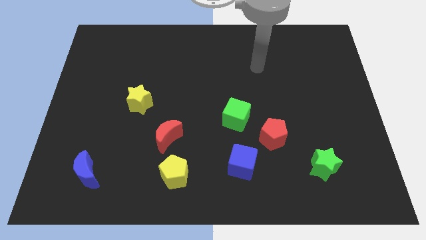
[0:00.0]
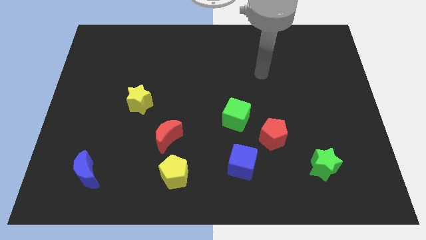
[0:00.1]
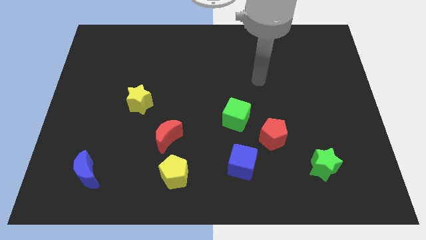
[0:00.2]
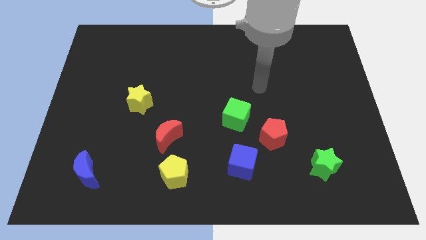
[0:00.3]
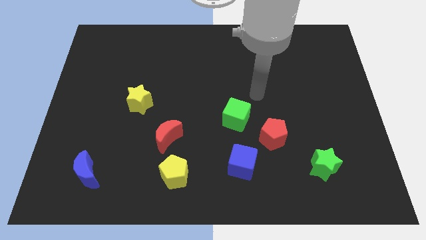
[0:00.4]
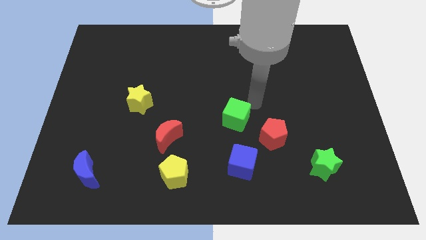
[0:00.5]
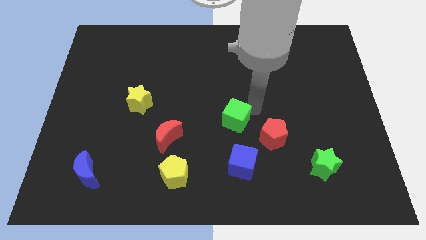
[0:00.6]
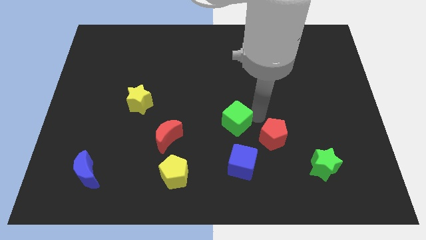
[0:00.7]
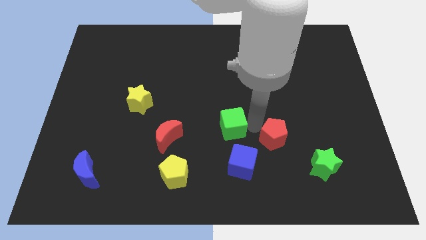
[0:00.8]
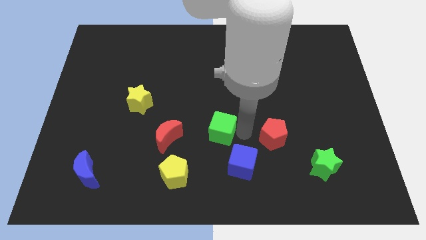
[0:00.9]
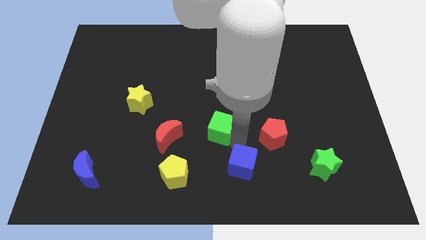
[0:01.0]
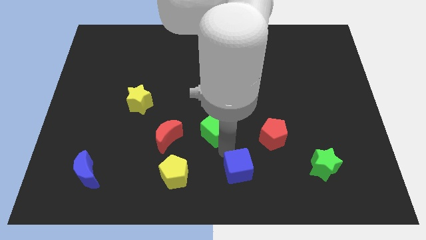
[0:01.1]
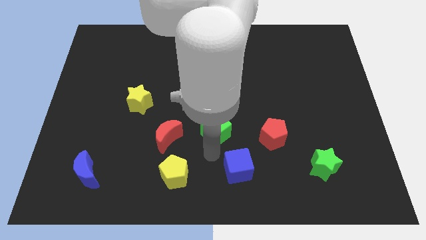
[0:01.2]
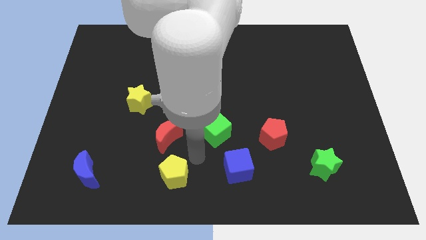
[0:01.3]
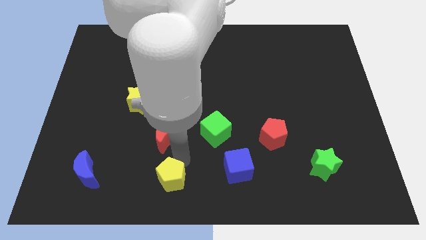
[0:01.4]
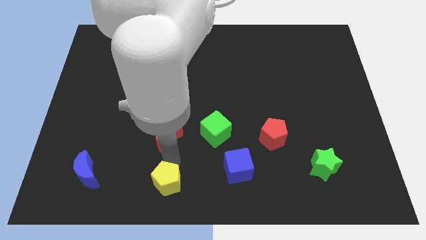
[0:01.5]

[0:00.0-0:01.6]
pull the red moon apart from the yellow pentagon

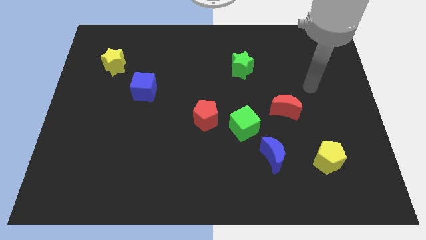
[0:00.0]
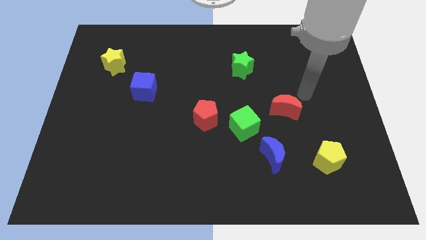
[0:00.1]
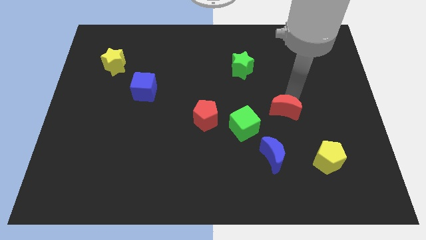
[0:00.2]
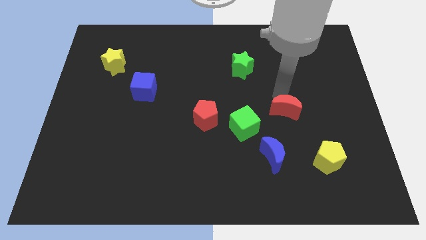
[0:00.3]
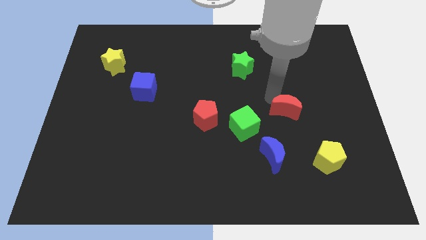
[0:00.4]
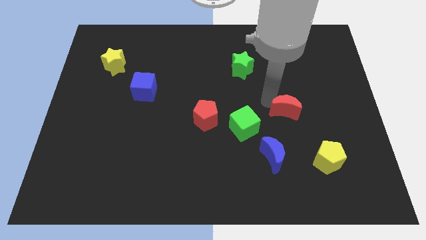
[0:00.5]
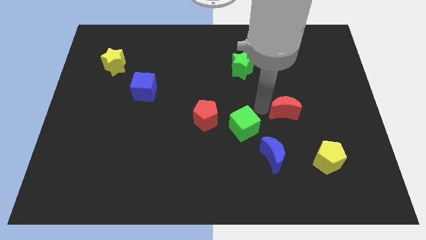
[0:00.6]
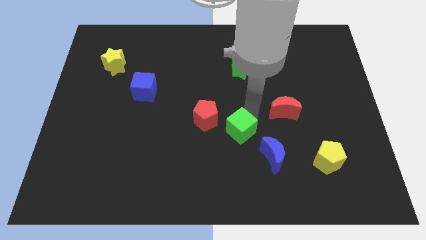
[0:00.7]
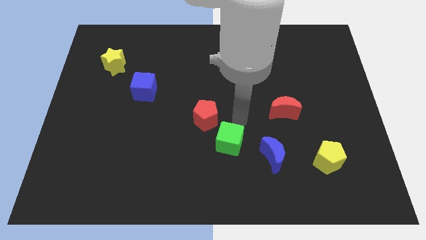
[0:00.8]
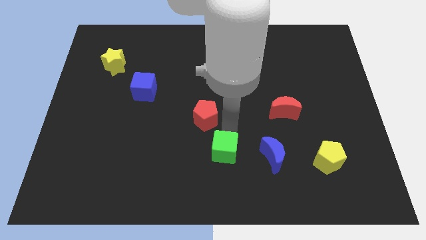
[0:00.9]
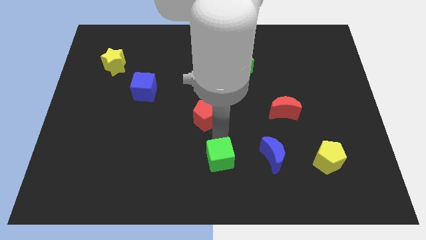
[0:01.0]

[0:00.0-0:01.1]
move the red pentagon away from the green cube

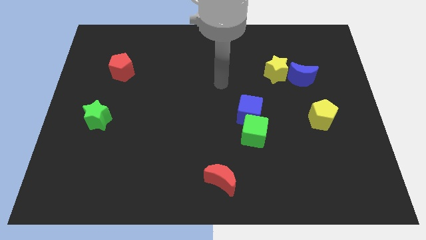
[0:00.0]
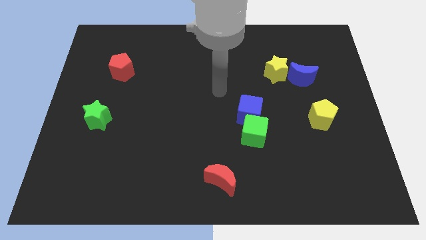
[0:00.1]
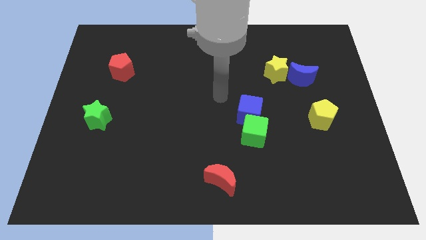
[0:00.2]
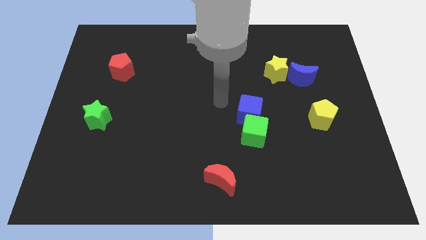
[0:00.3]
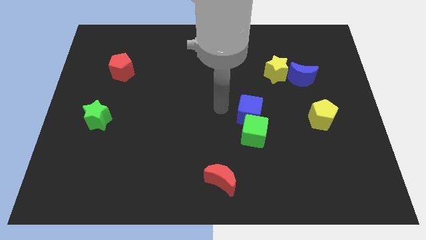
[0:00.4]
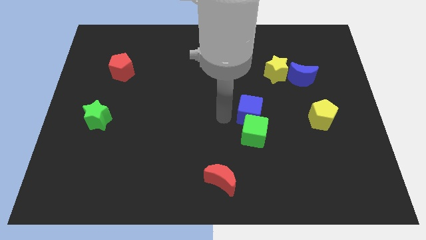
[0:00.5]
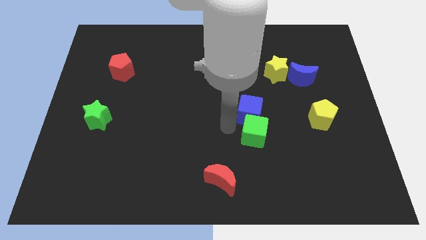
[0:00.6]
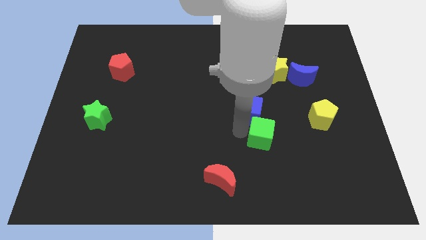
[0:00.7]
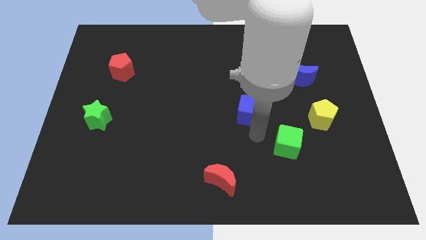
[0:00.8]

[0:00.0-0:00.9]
pull the blue cube apart from the green cube

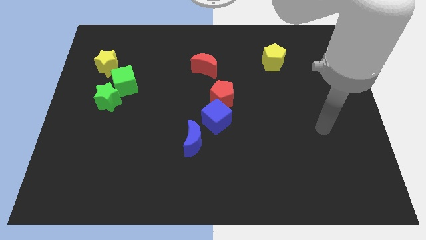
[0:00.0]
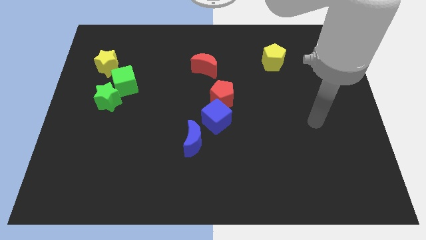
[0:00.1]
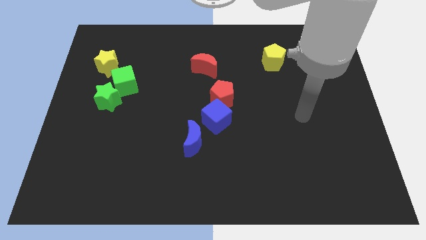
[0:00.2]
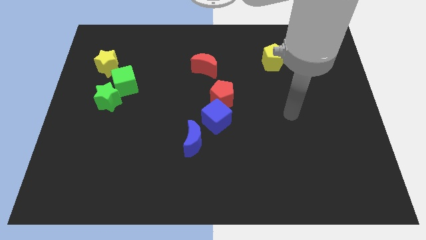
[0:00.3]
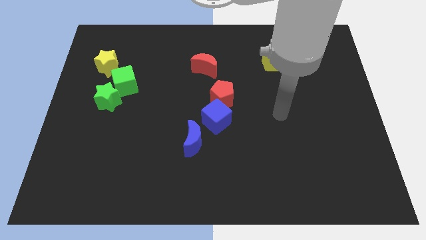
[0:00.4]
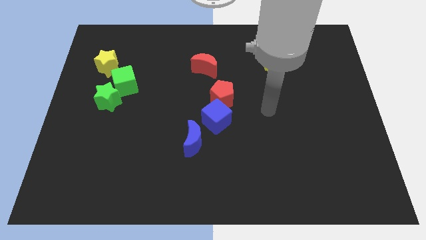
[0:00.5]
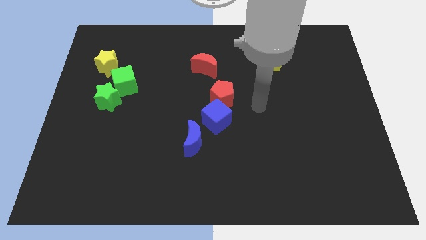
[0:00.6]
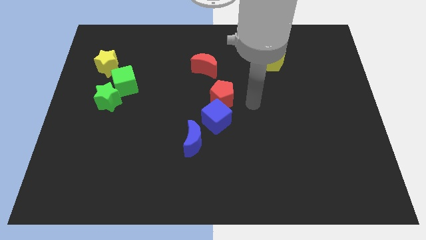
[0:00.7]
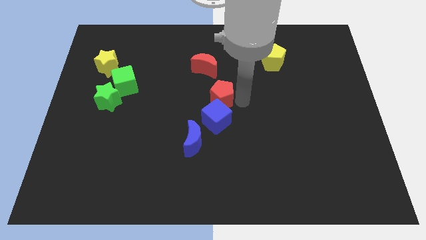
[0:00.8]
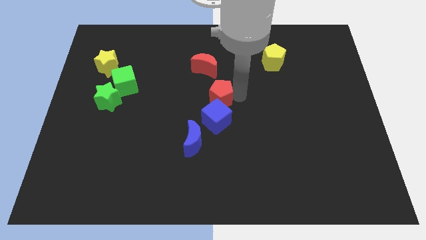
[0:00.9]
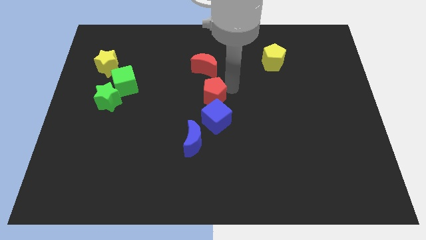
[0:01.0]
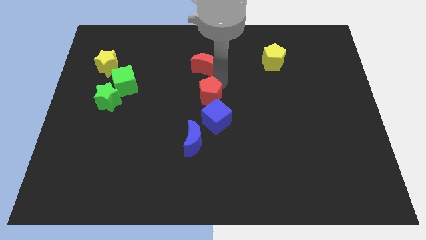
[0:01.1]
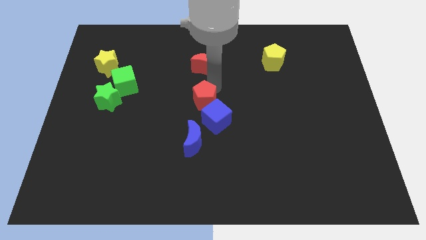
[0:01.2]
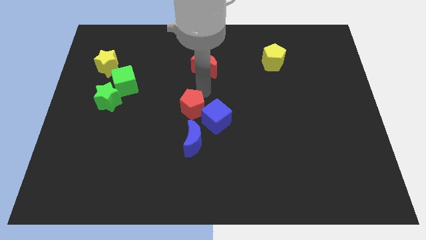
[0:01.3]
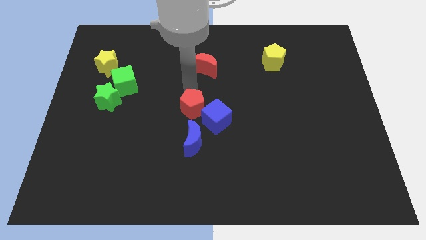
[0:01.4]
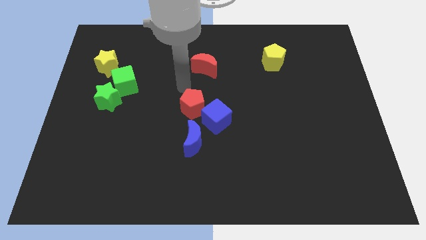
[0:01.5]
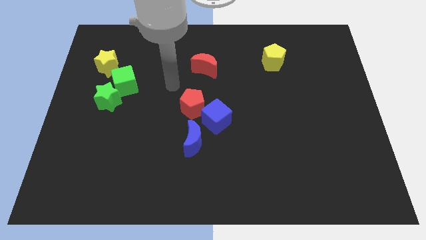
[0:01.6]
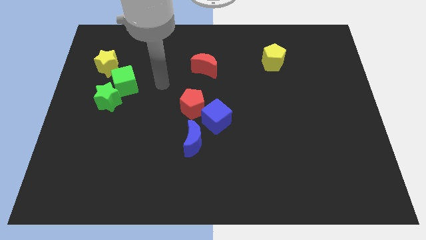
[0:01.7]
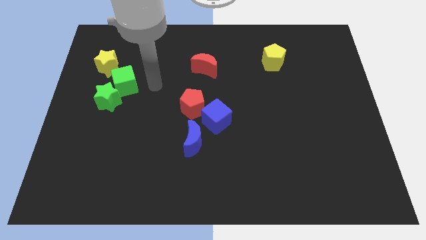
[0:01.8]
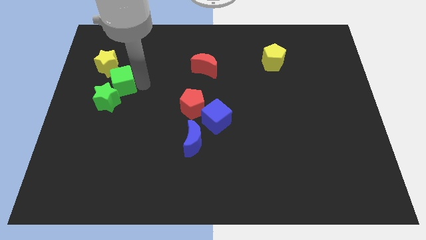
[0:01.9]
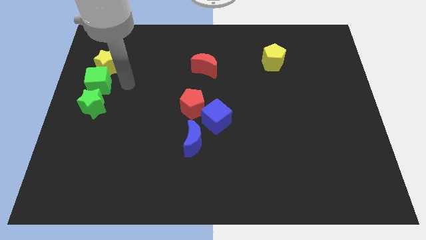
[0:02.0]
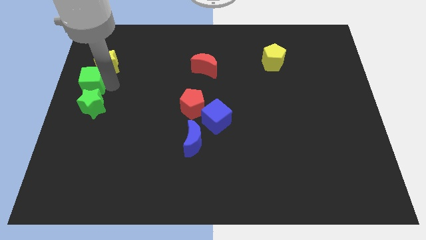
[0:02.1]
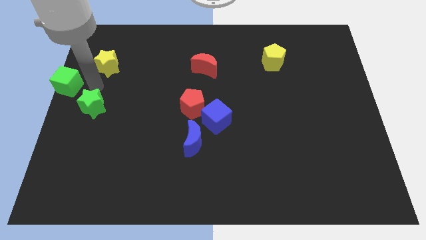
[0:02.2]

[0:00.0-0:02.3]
separate the green star from the green cube

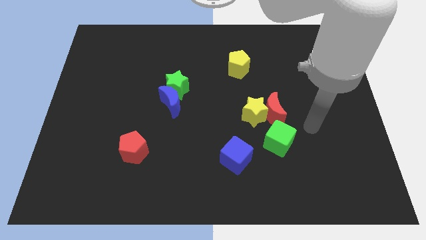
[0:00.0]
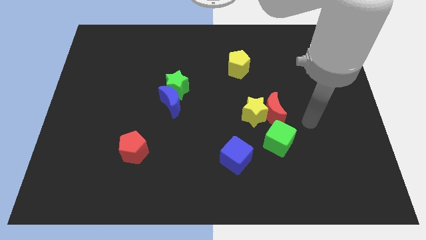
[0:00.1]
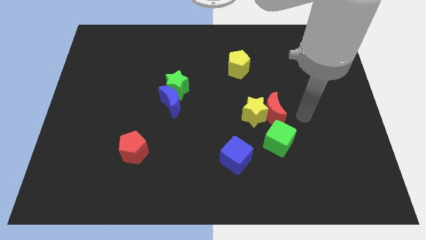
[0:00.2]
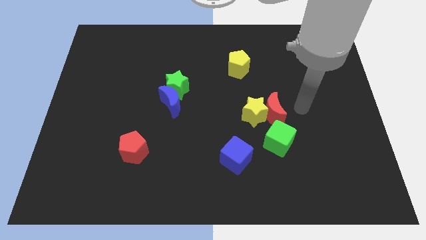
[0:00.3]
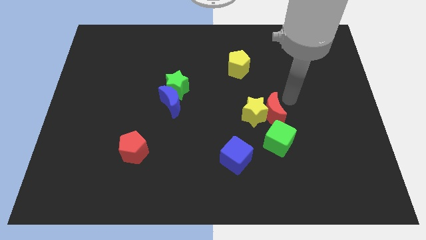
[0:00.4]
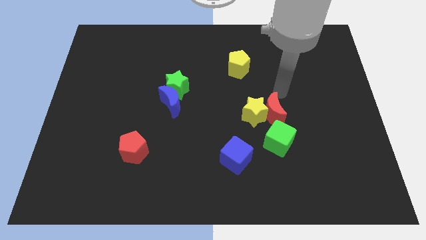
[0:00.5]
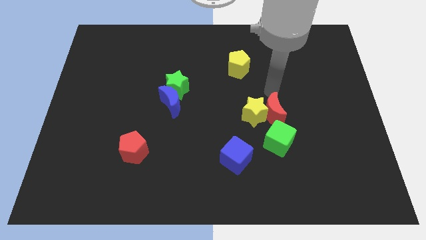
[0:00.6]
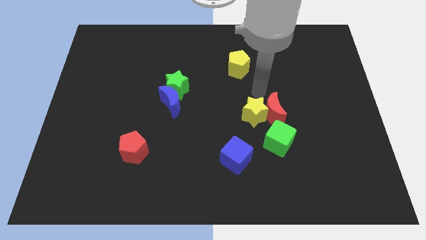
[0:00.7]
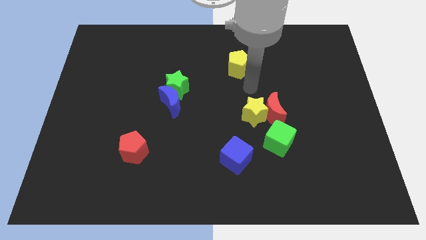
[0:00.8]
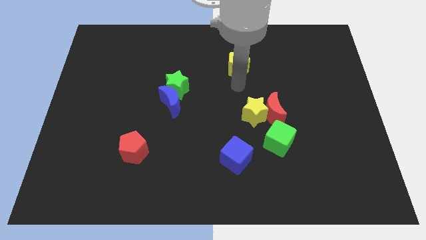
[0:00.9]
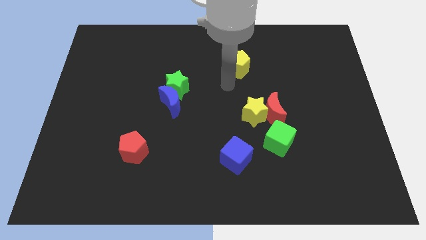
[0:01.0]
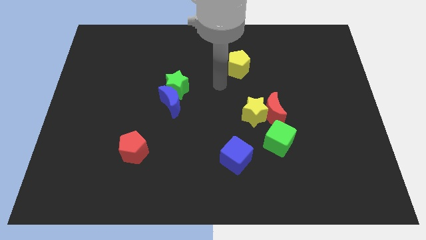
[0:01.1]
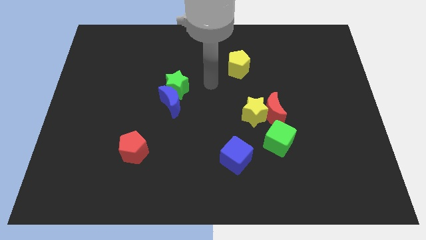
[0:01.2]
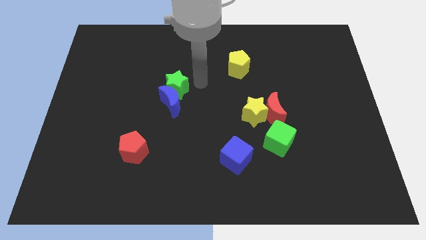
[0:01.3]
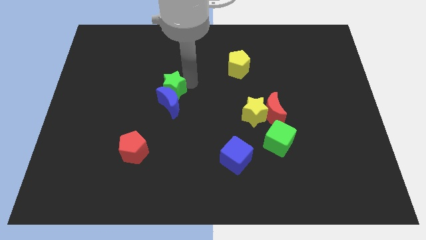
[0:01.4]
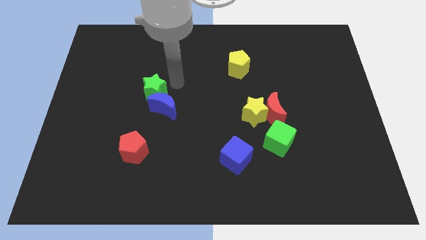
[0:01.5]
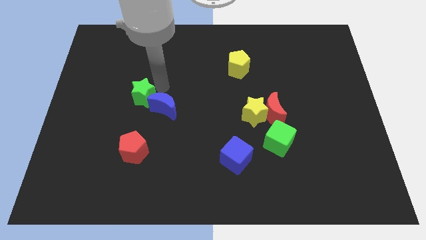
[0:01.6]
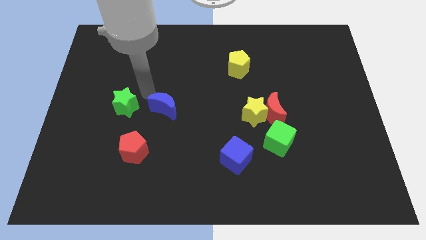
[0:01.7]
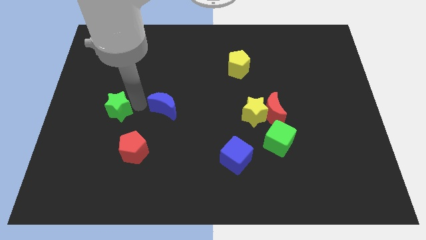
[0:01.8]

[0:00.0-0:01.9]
move the blue moon away from the green star

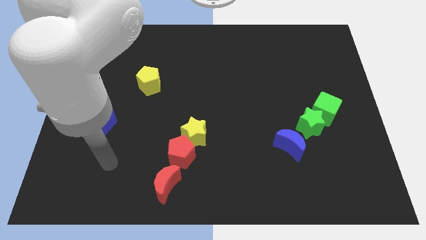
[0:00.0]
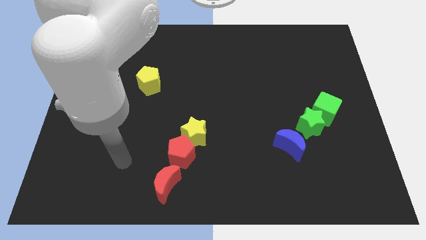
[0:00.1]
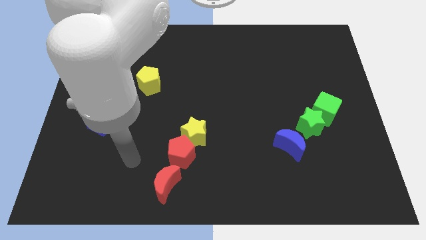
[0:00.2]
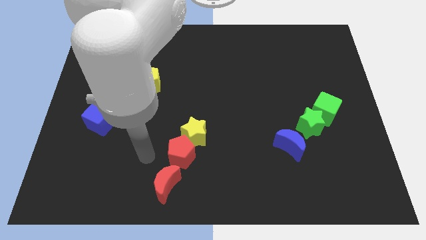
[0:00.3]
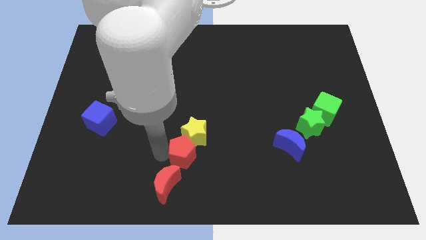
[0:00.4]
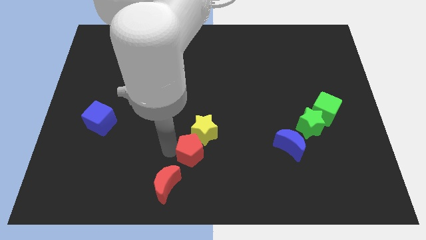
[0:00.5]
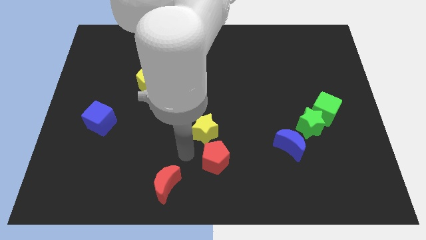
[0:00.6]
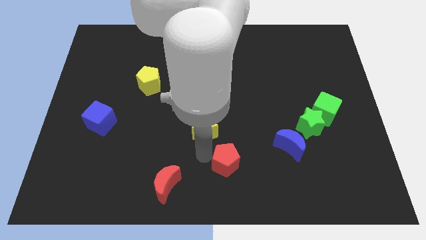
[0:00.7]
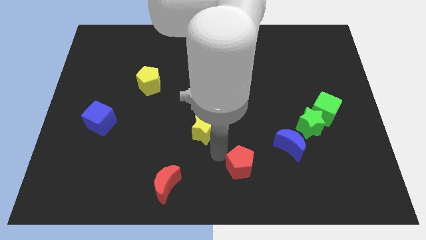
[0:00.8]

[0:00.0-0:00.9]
pull the yellow star apart from the red pentagon

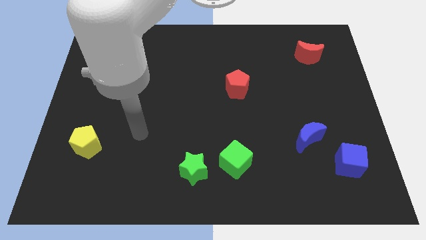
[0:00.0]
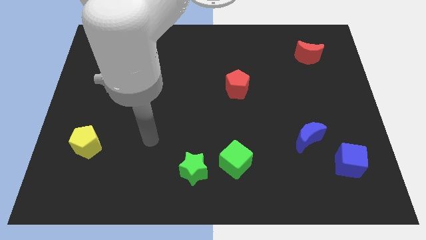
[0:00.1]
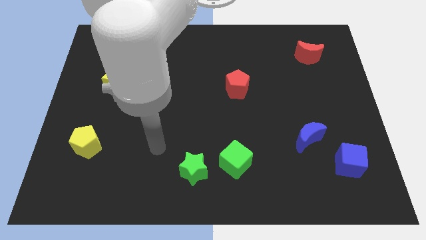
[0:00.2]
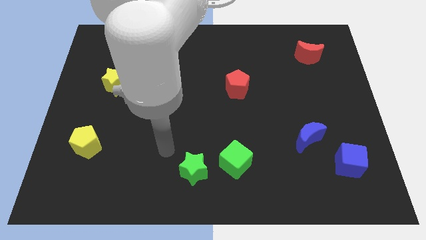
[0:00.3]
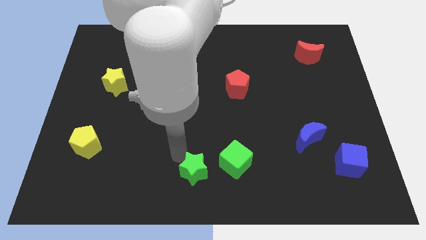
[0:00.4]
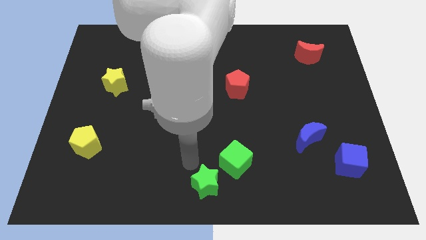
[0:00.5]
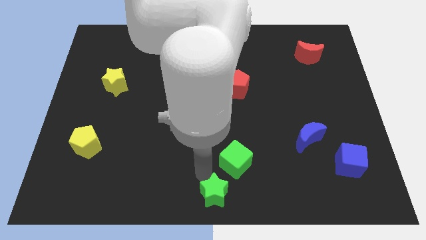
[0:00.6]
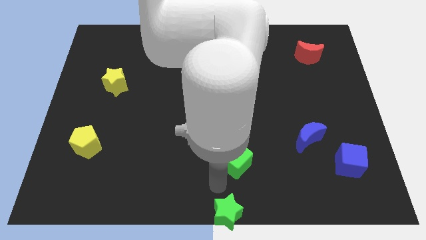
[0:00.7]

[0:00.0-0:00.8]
pull the green cube apart from the green star
